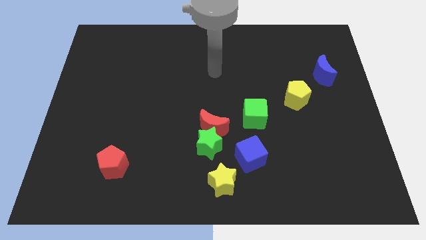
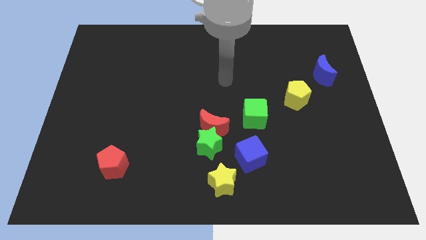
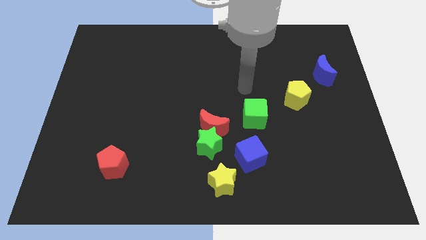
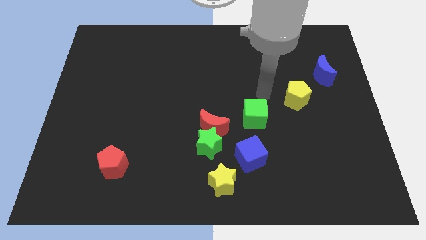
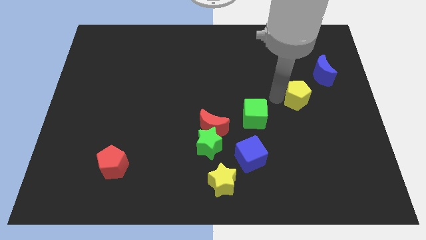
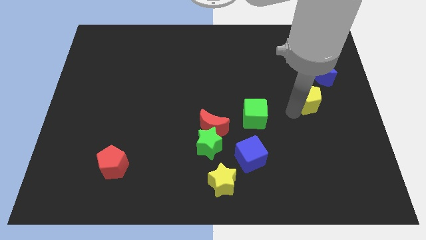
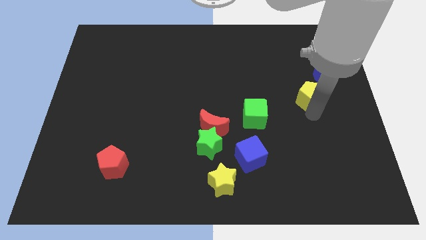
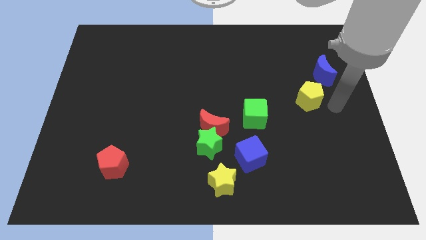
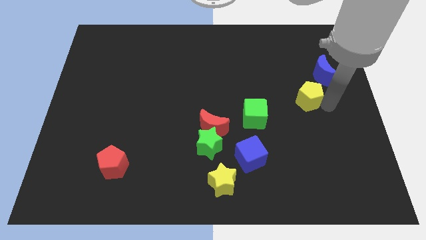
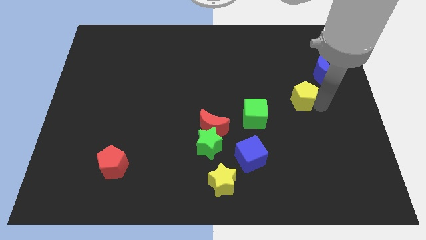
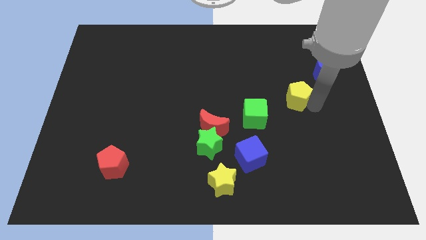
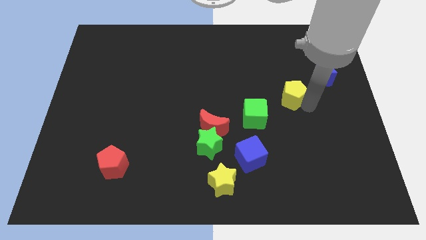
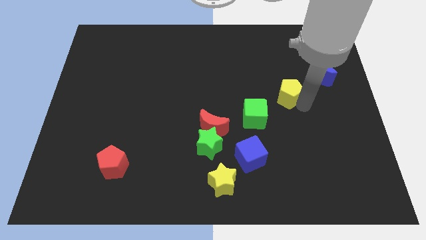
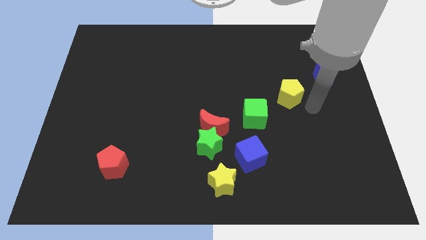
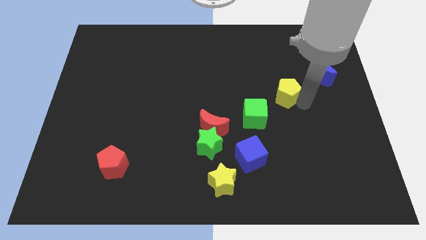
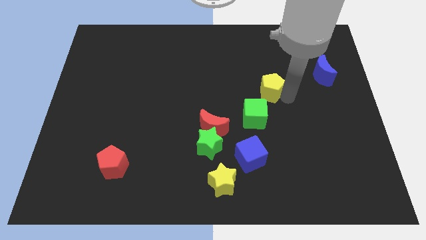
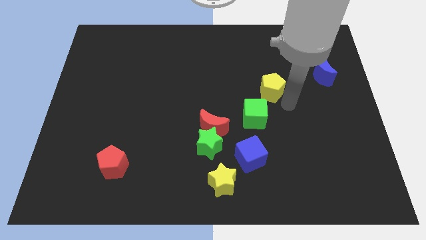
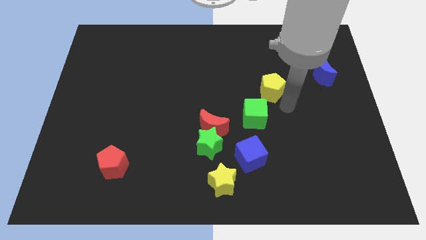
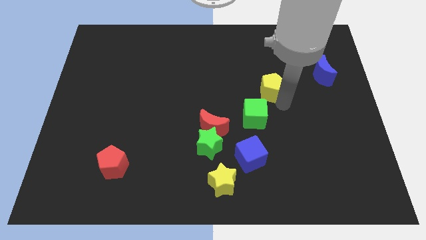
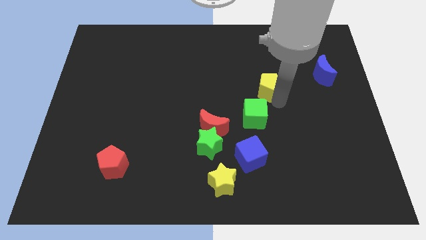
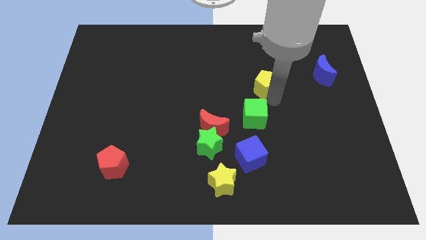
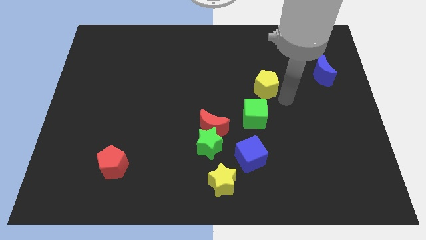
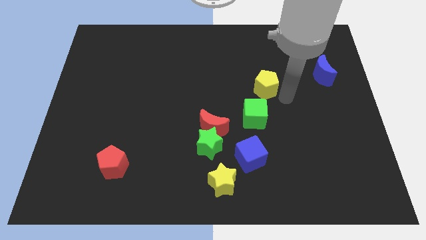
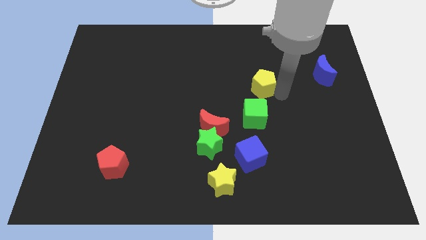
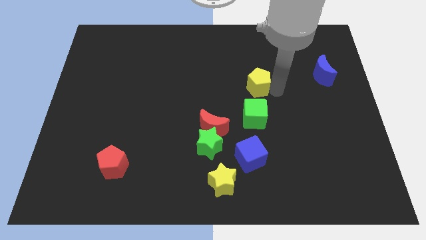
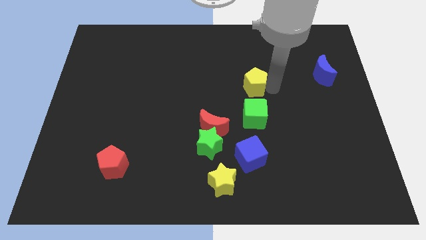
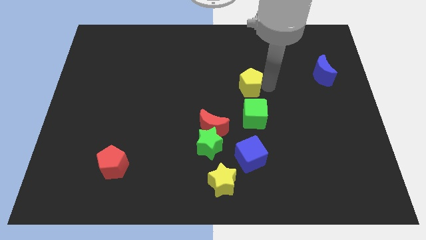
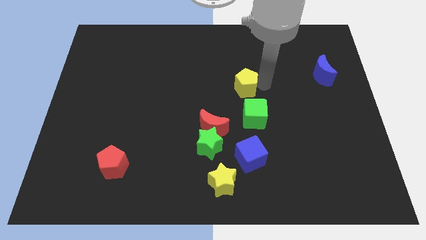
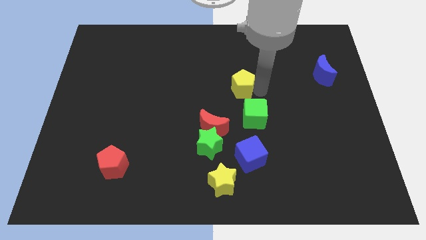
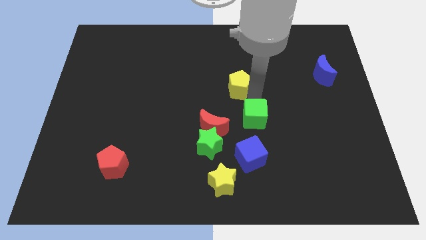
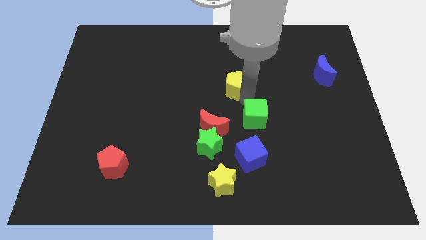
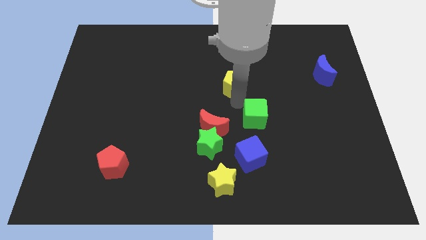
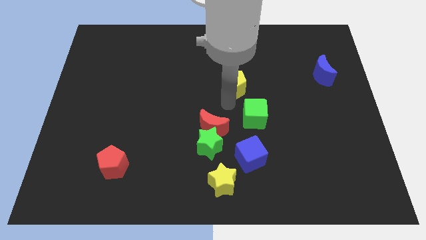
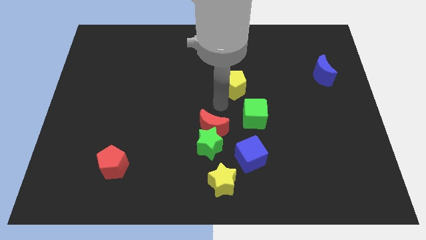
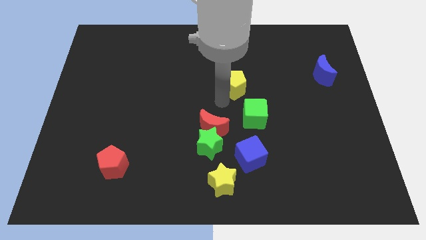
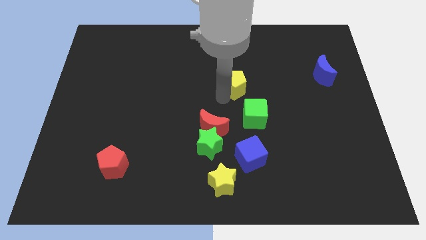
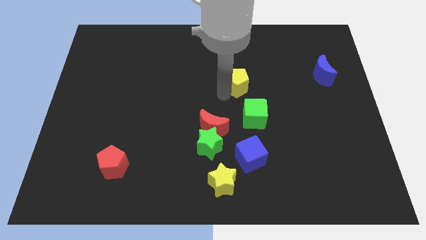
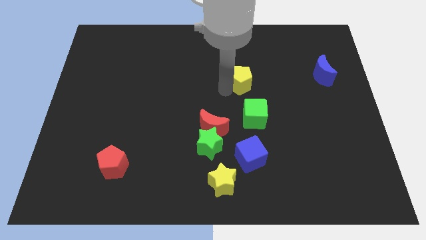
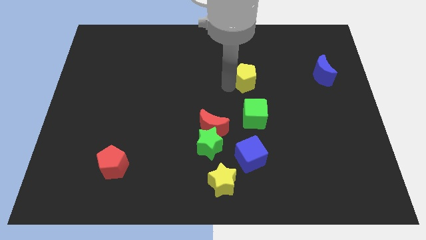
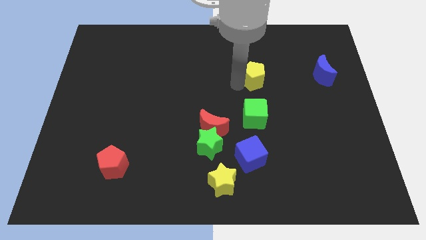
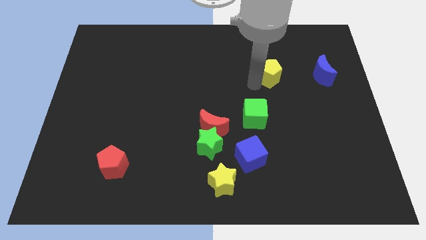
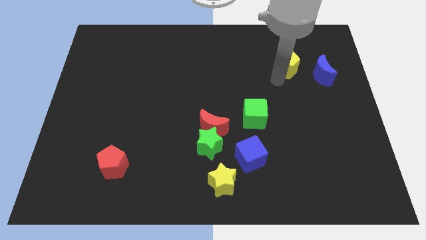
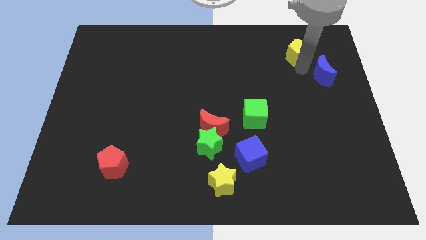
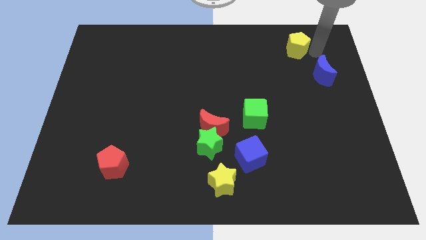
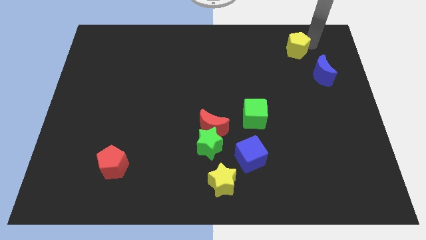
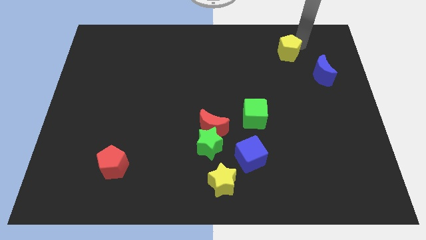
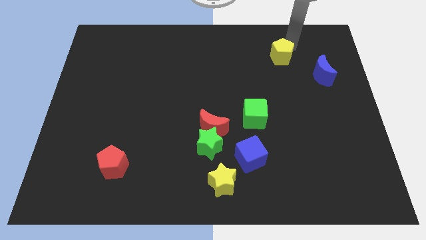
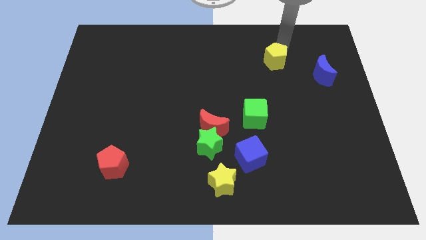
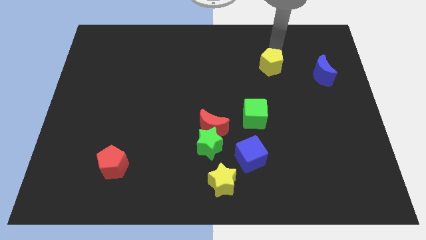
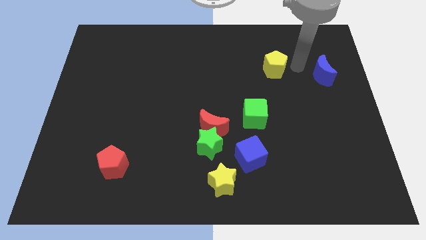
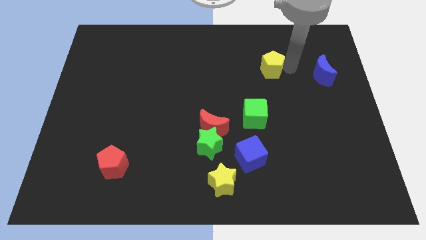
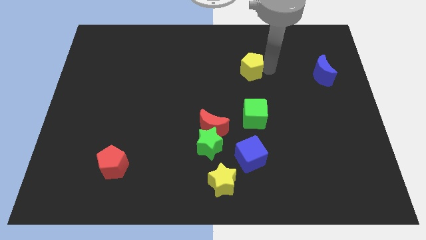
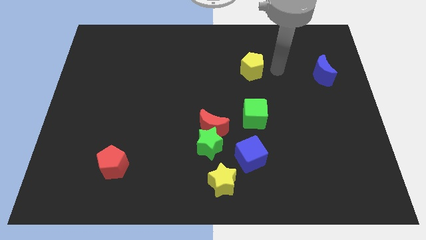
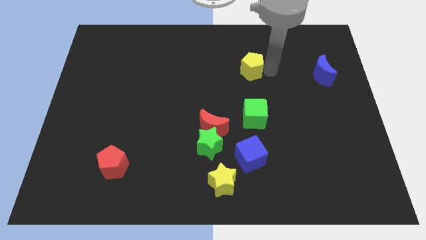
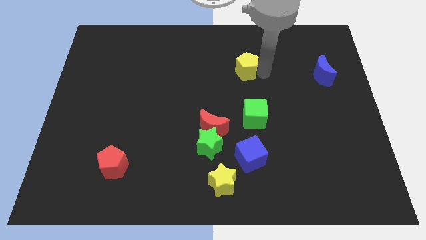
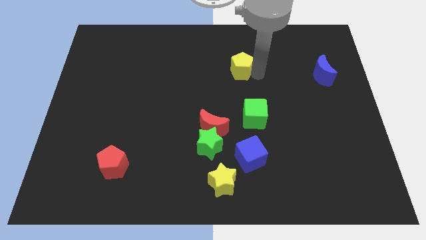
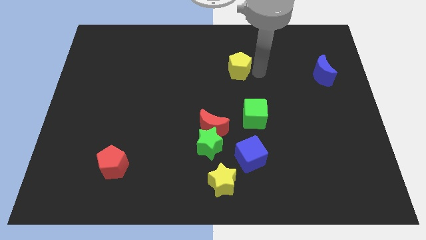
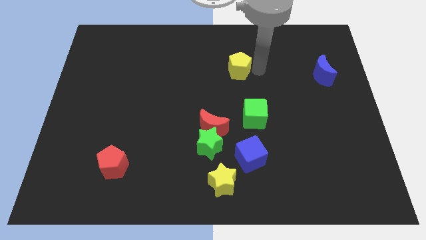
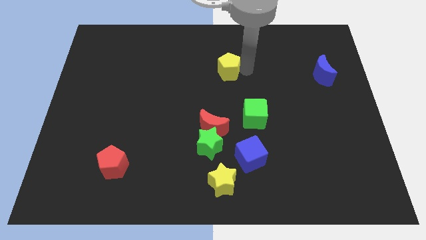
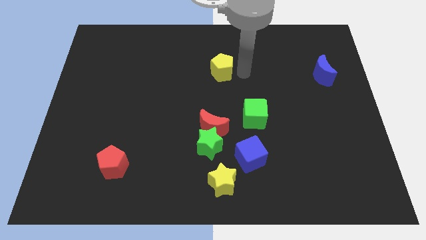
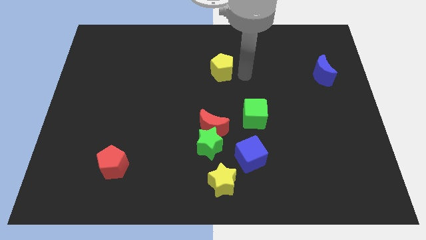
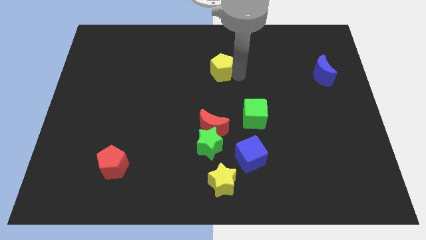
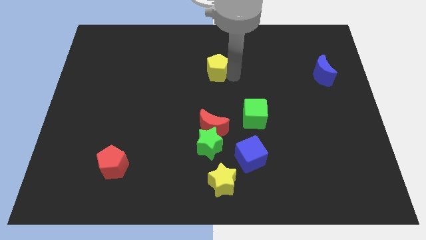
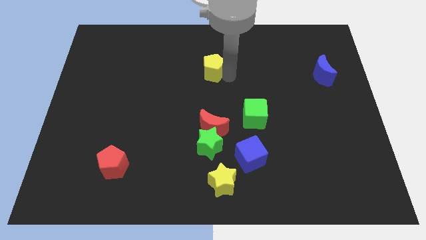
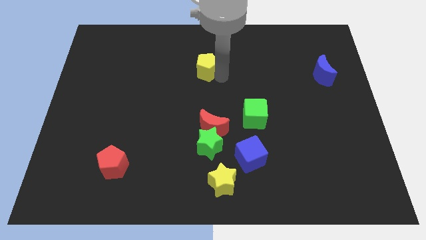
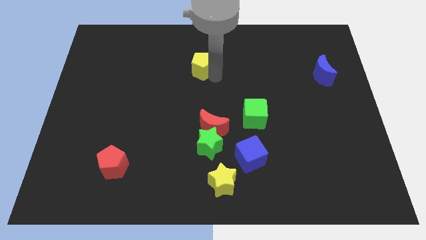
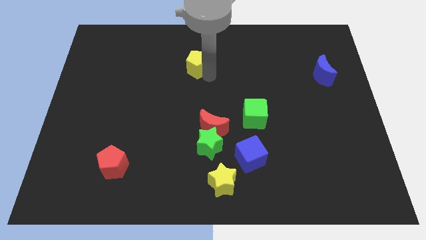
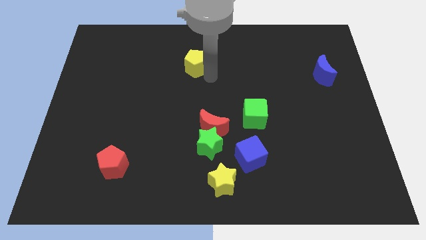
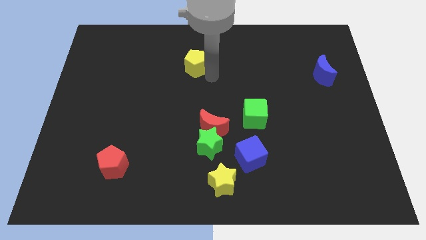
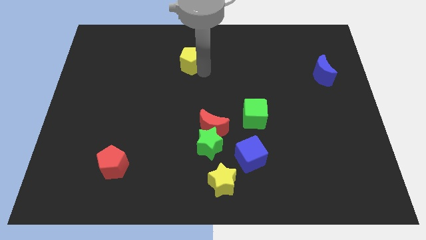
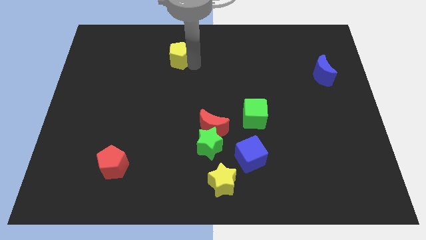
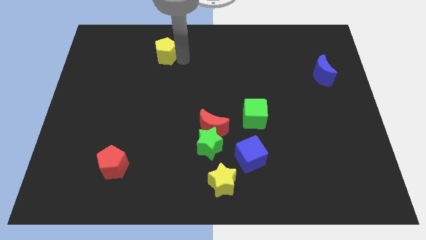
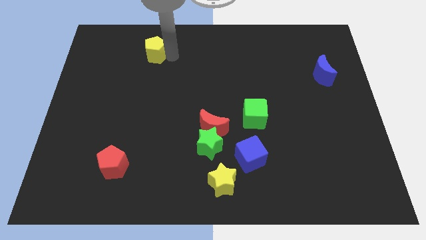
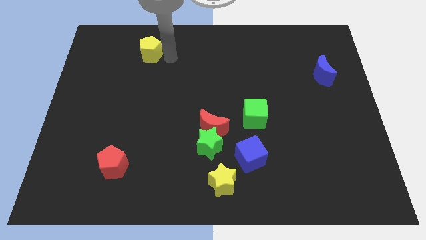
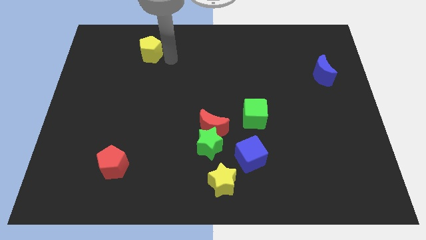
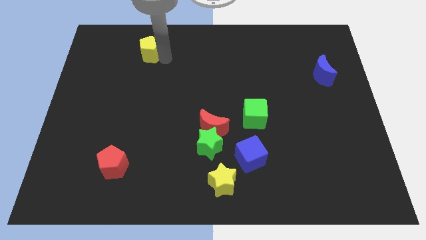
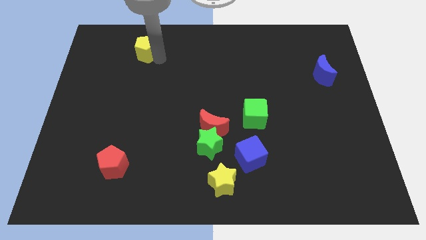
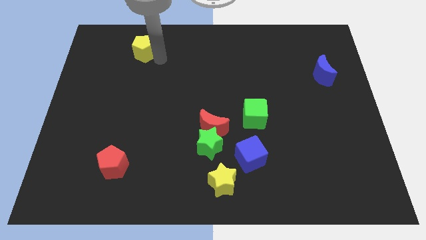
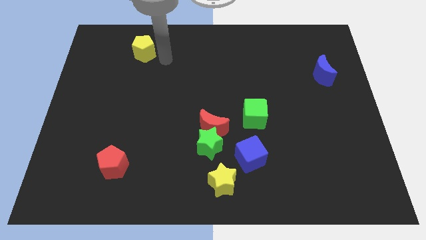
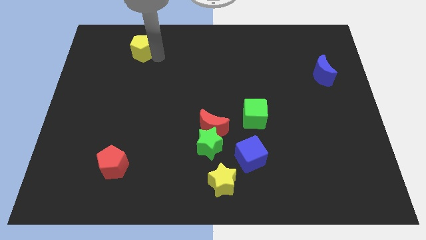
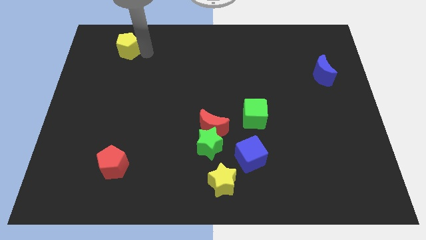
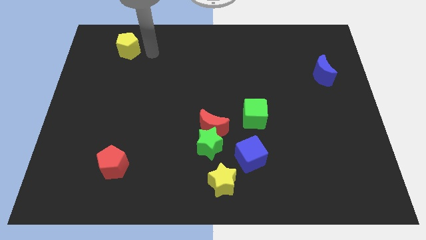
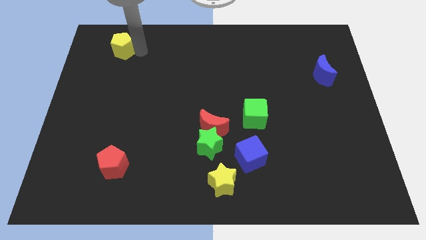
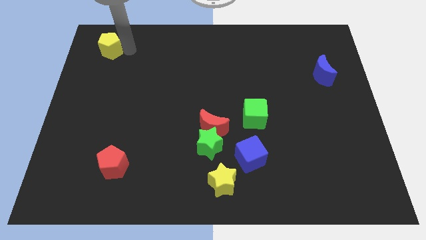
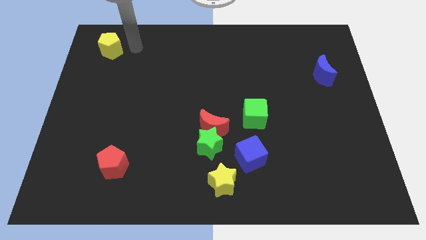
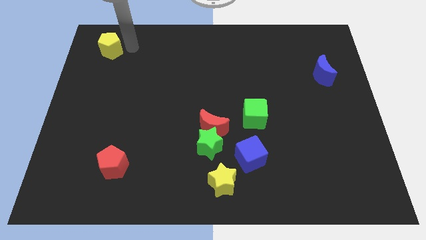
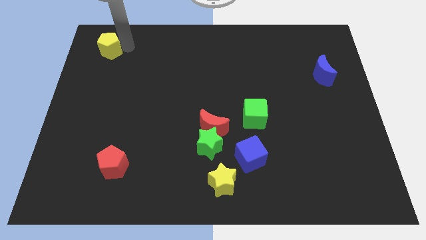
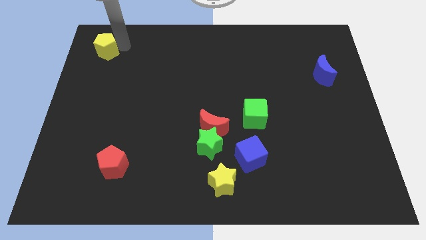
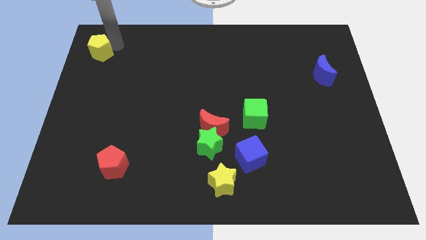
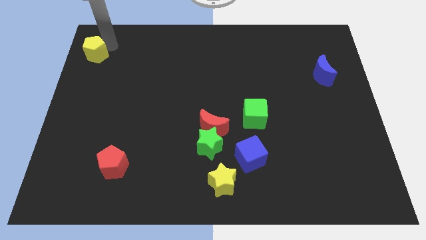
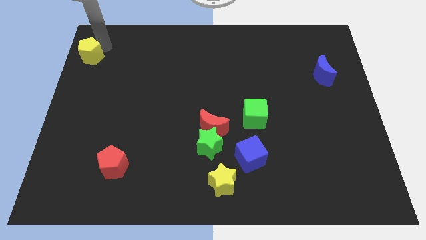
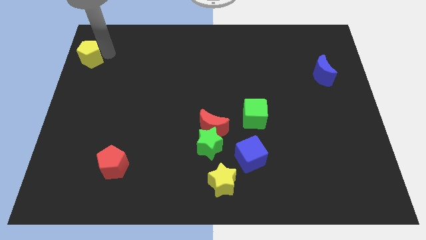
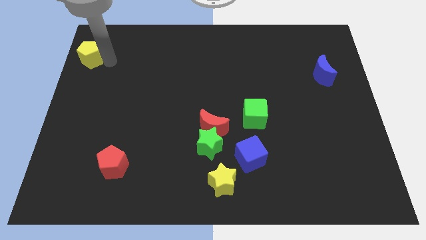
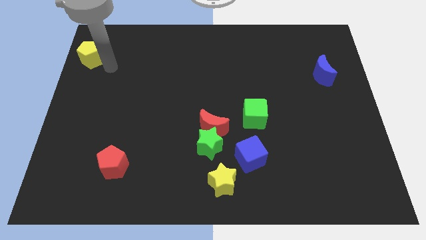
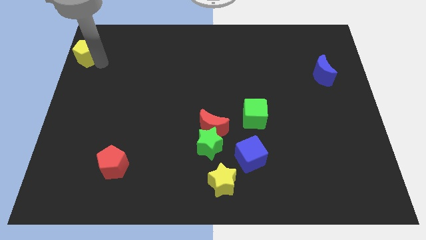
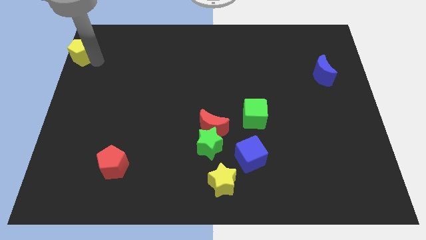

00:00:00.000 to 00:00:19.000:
slide the yellow pentagon to the upper left corner
